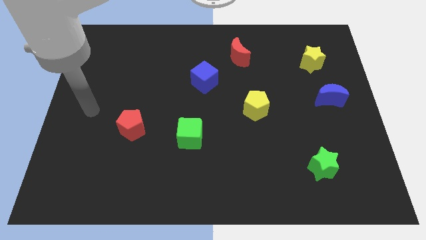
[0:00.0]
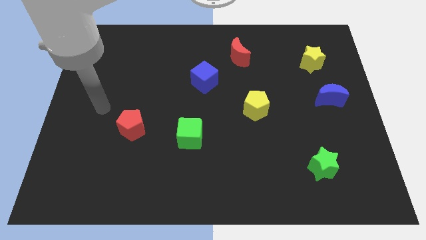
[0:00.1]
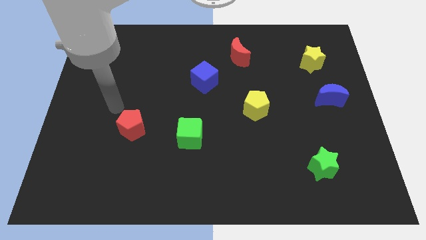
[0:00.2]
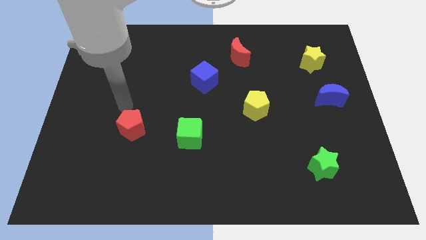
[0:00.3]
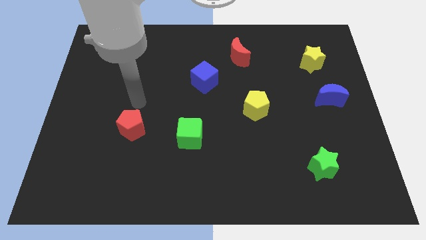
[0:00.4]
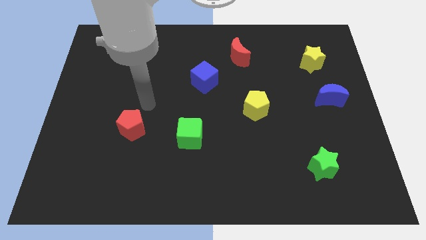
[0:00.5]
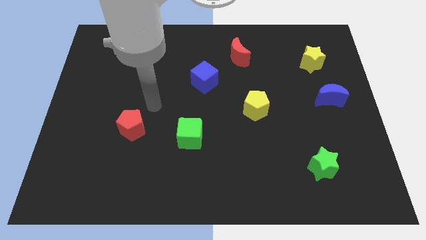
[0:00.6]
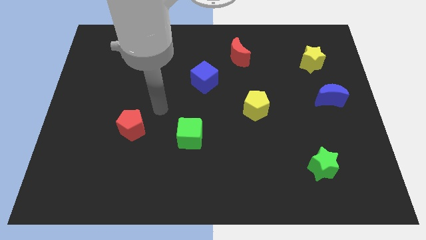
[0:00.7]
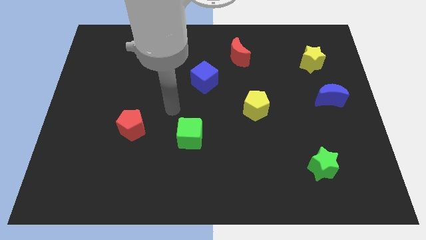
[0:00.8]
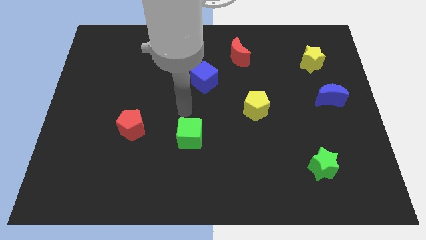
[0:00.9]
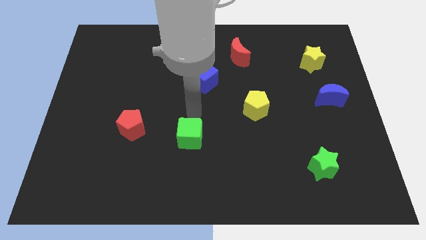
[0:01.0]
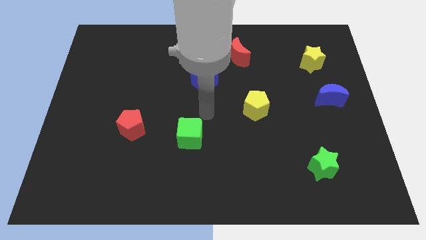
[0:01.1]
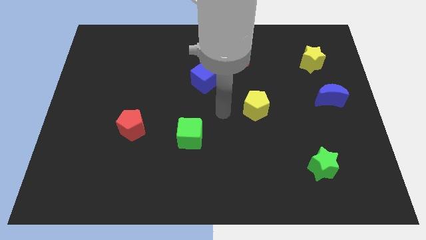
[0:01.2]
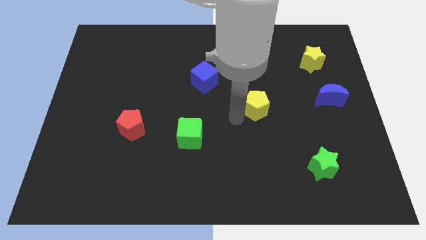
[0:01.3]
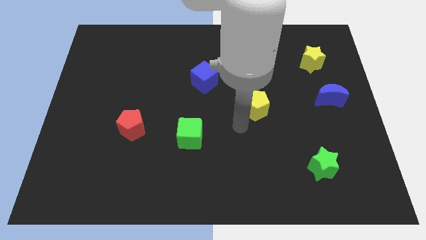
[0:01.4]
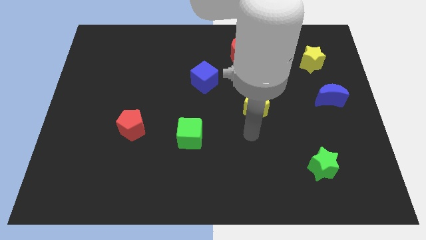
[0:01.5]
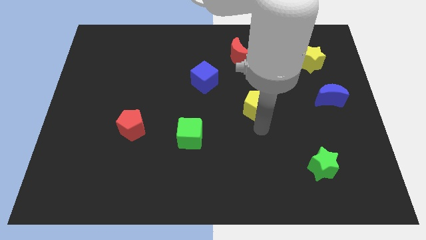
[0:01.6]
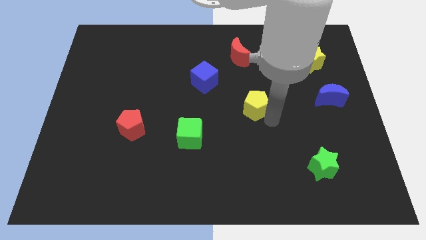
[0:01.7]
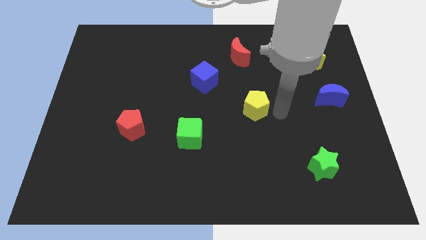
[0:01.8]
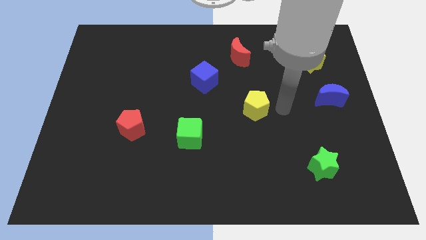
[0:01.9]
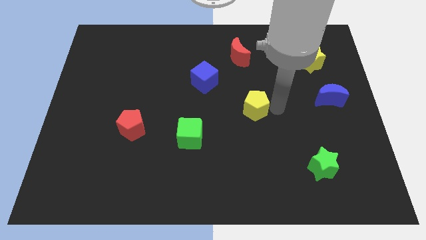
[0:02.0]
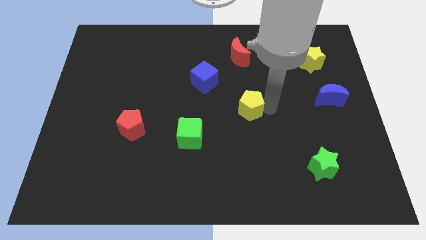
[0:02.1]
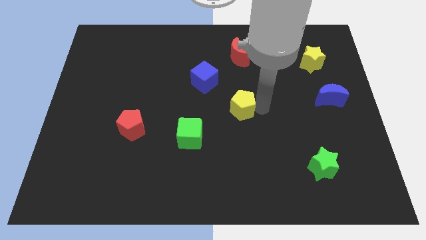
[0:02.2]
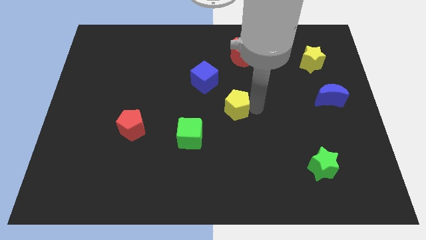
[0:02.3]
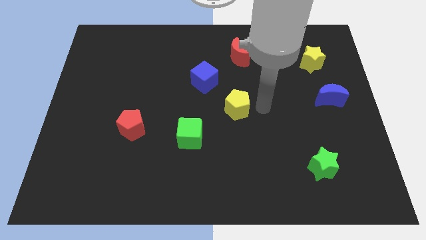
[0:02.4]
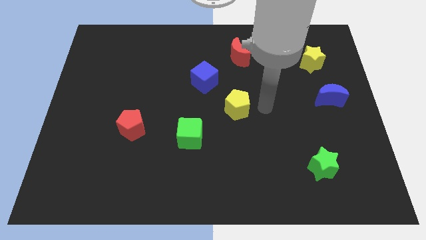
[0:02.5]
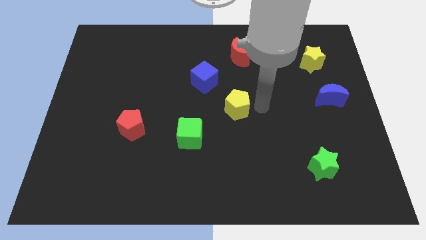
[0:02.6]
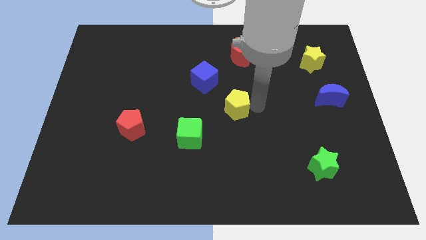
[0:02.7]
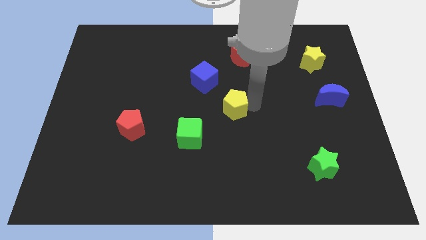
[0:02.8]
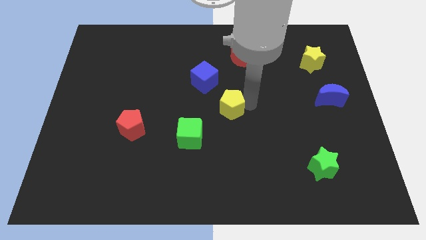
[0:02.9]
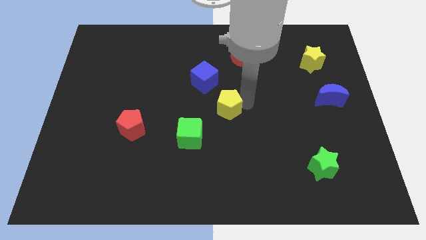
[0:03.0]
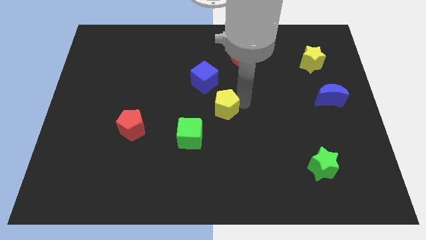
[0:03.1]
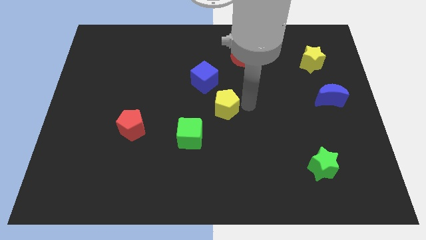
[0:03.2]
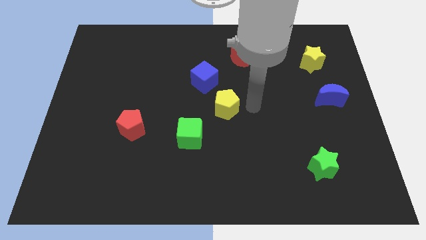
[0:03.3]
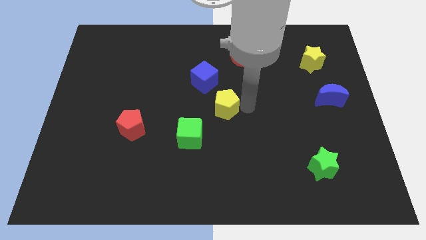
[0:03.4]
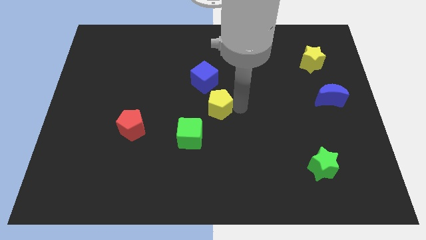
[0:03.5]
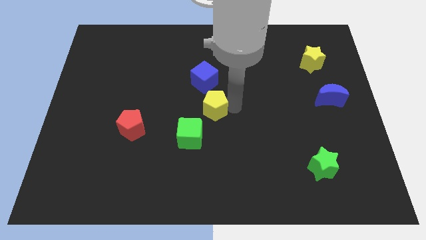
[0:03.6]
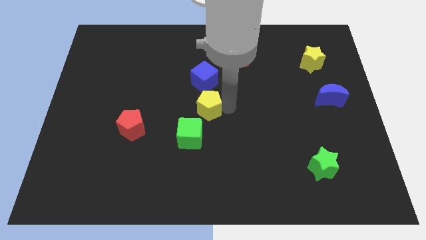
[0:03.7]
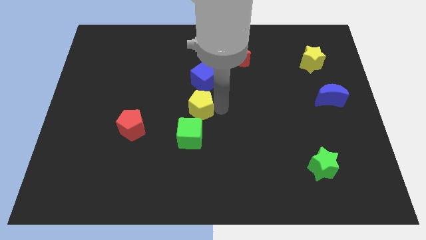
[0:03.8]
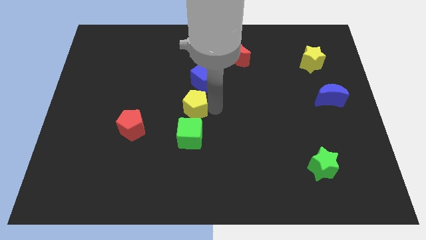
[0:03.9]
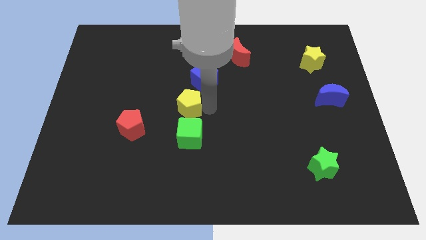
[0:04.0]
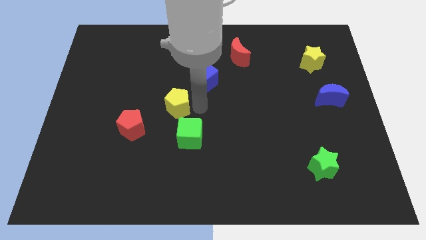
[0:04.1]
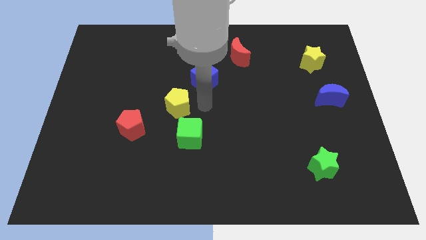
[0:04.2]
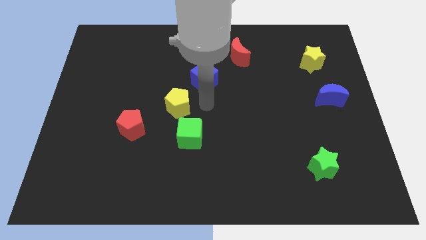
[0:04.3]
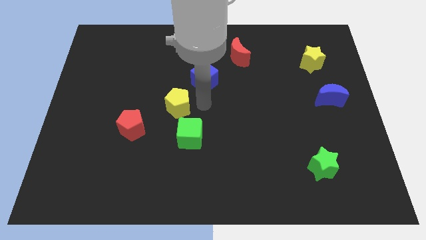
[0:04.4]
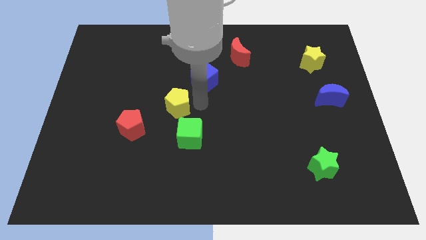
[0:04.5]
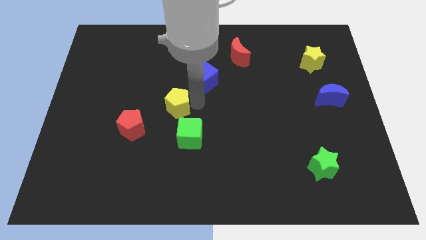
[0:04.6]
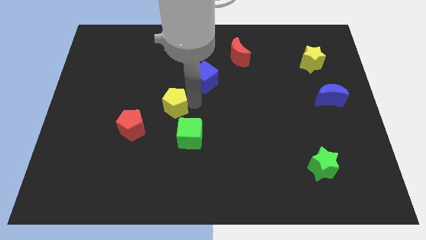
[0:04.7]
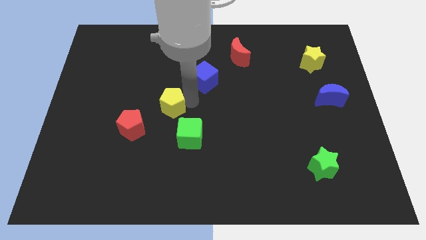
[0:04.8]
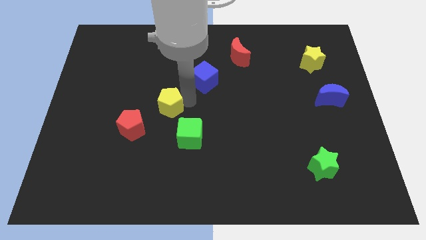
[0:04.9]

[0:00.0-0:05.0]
slide the yellow pentagon to the left

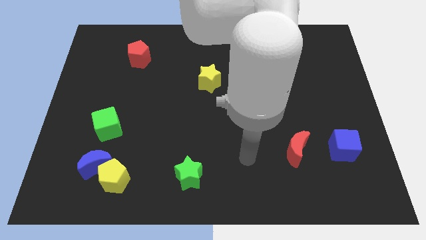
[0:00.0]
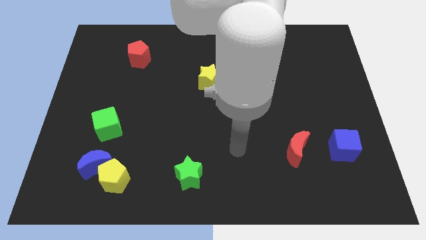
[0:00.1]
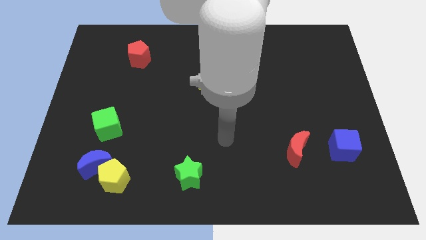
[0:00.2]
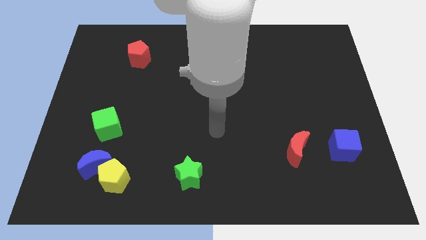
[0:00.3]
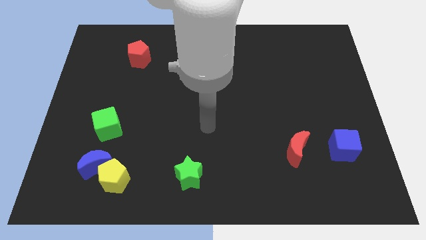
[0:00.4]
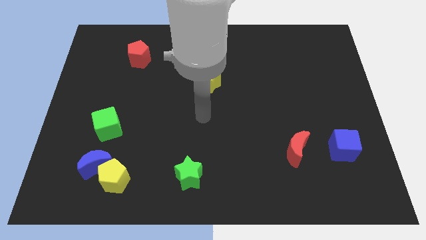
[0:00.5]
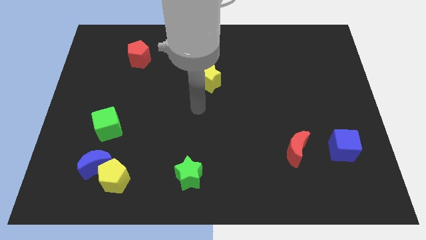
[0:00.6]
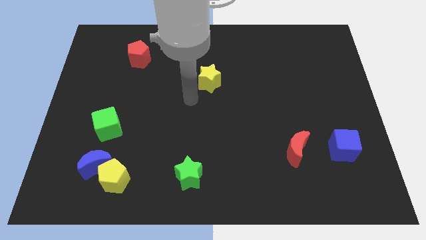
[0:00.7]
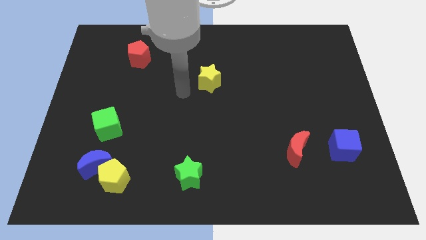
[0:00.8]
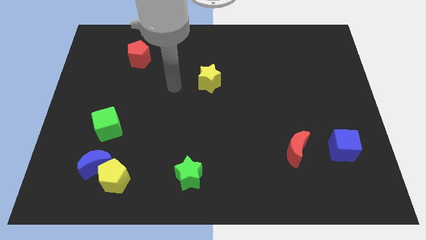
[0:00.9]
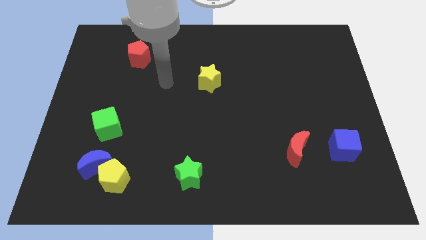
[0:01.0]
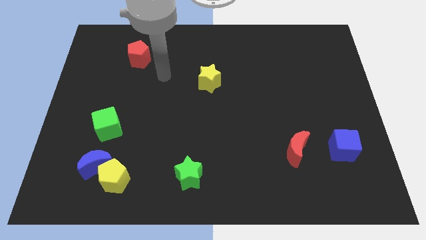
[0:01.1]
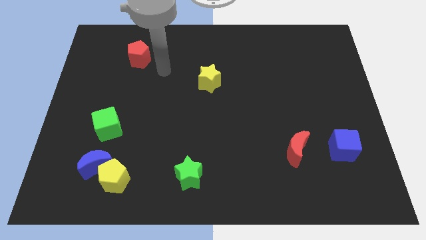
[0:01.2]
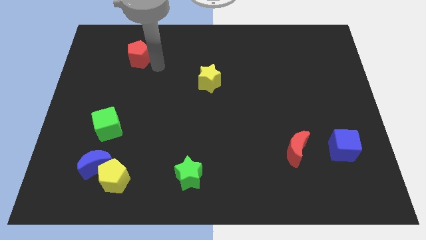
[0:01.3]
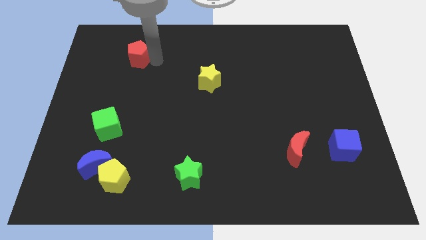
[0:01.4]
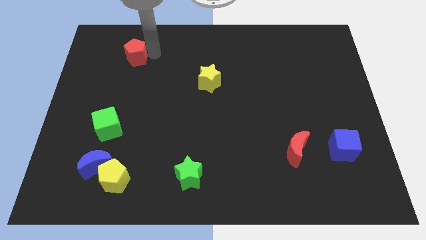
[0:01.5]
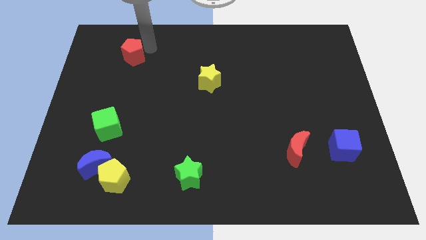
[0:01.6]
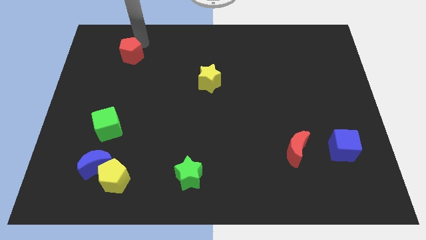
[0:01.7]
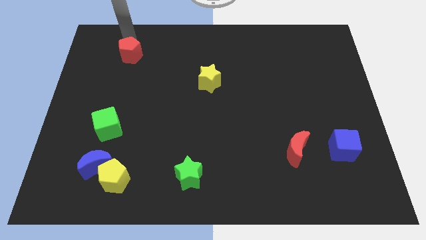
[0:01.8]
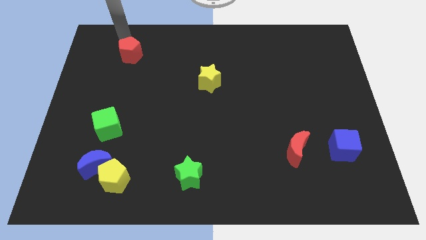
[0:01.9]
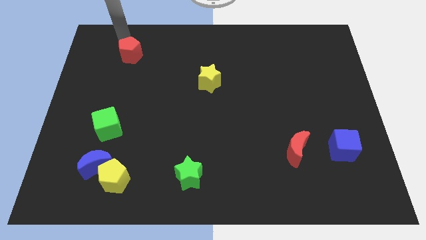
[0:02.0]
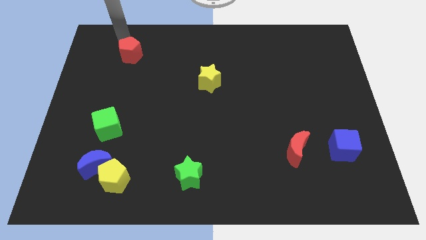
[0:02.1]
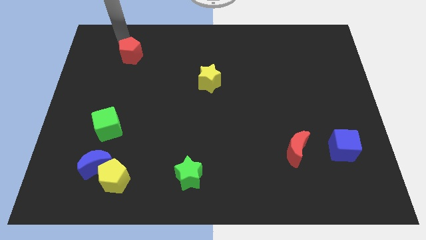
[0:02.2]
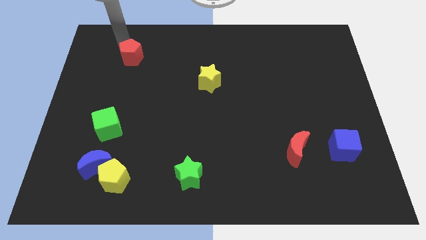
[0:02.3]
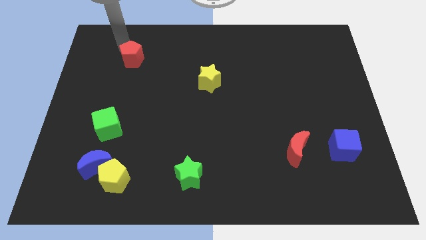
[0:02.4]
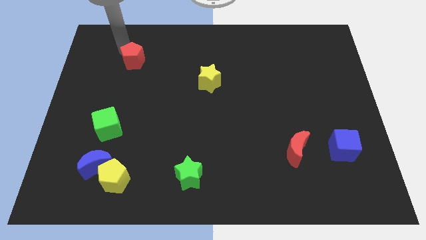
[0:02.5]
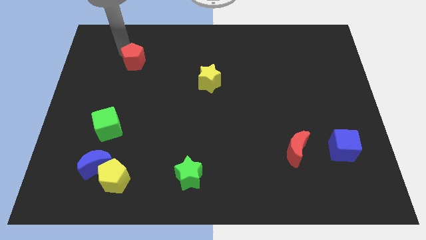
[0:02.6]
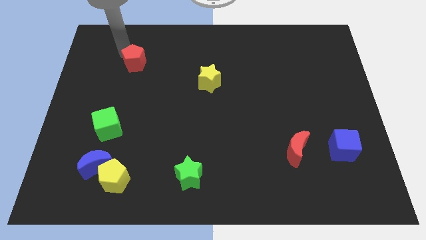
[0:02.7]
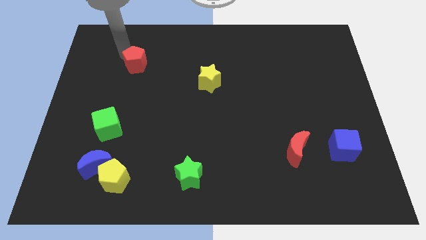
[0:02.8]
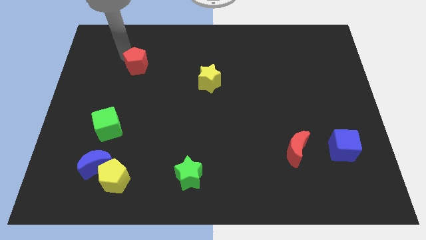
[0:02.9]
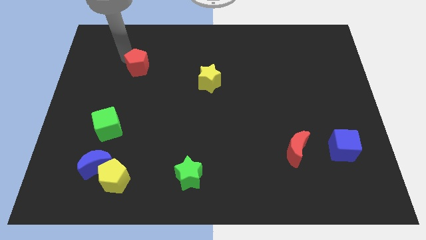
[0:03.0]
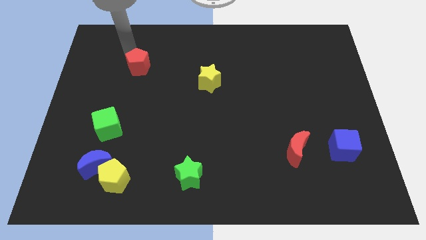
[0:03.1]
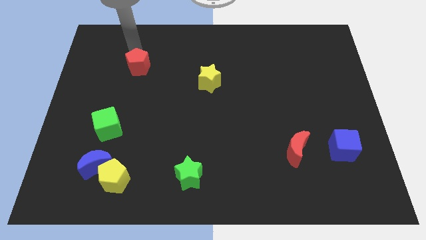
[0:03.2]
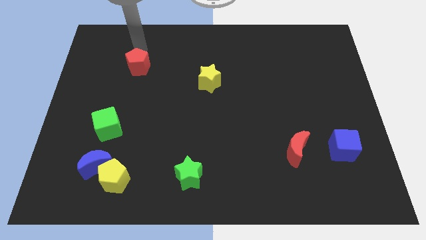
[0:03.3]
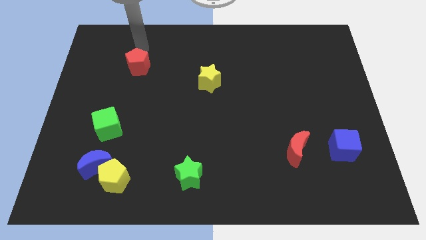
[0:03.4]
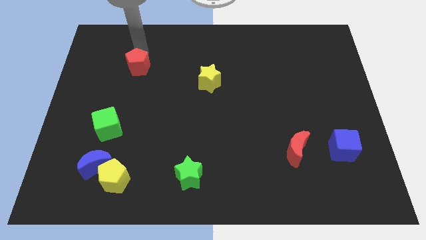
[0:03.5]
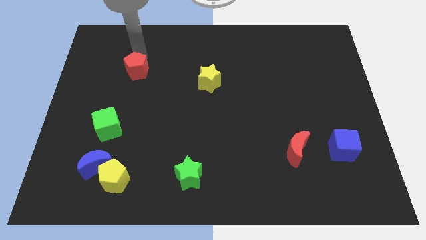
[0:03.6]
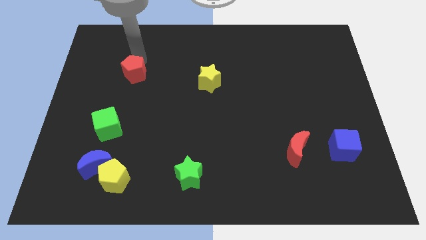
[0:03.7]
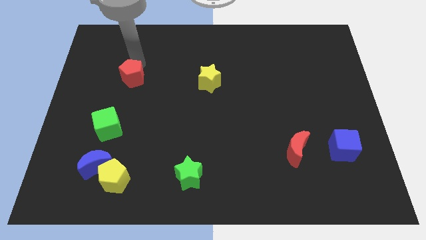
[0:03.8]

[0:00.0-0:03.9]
push the red pentagon a bit downwards
